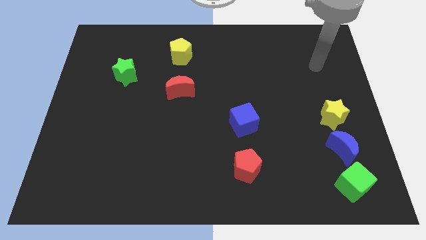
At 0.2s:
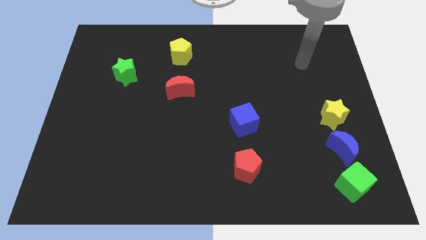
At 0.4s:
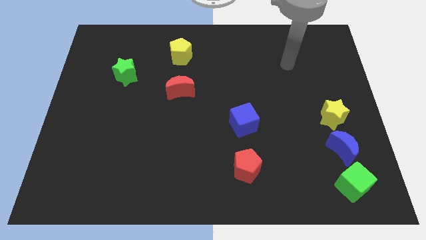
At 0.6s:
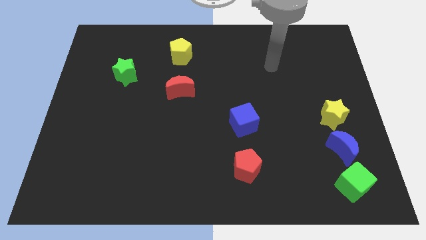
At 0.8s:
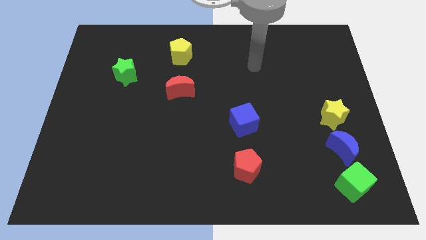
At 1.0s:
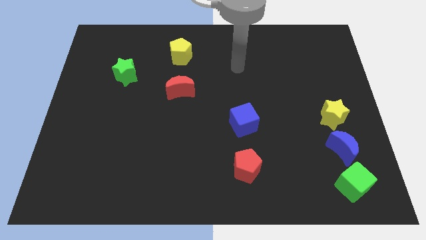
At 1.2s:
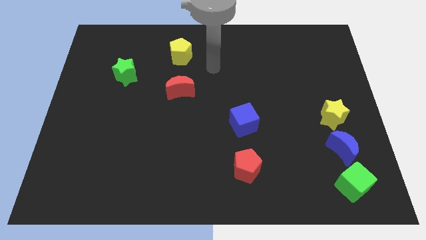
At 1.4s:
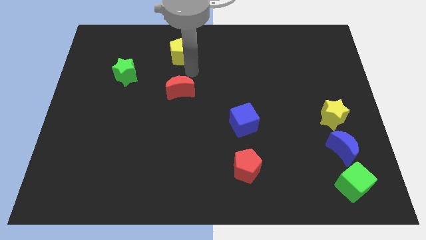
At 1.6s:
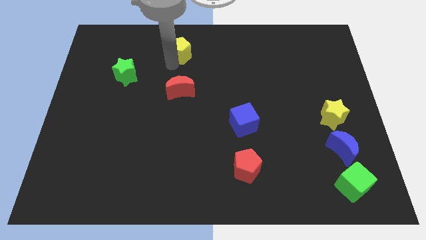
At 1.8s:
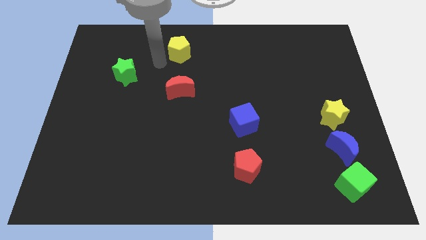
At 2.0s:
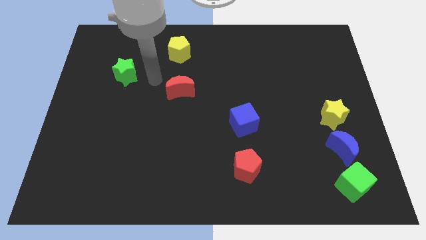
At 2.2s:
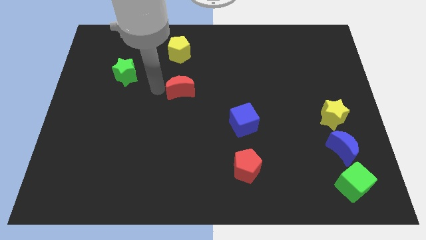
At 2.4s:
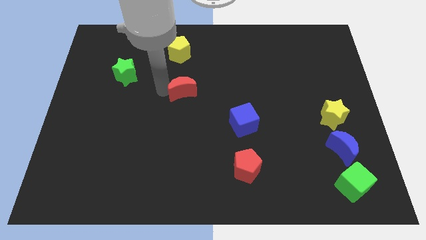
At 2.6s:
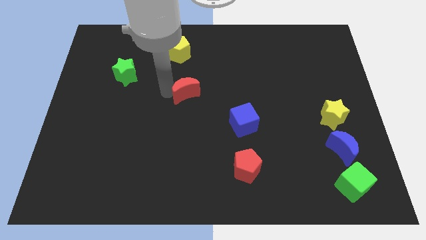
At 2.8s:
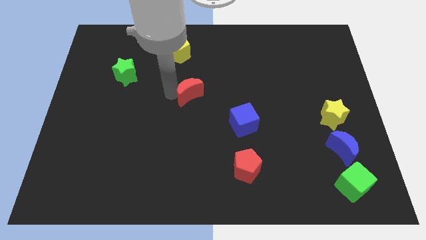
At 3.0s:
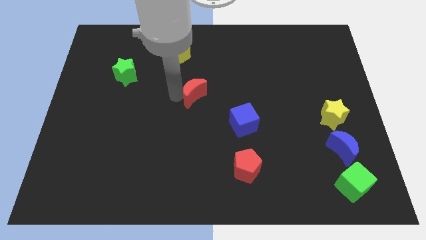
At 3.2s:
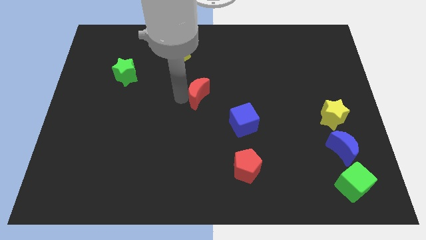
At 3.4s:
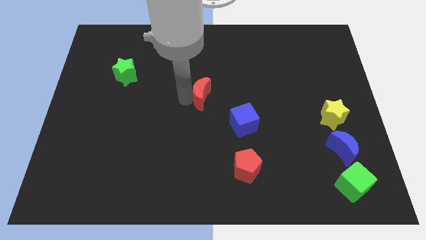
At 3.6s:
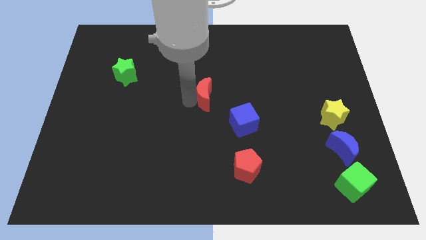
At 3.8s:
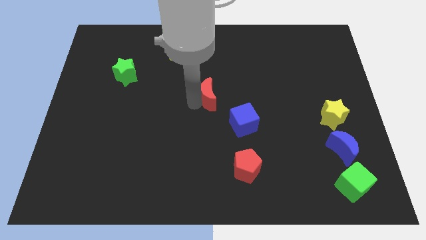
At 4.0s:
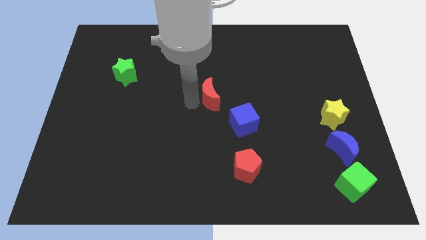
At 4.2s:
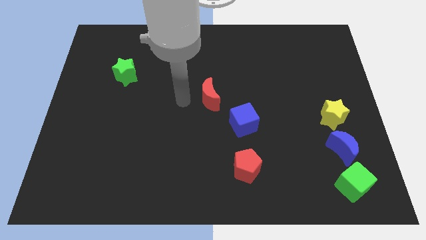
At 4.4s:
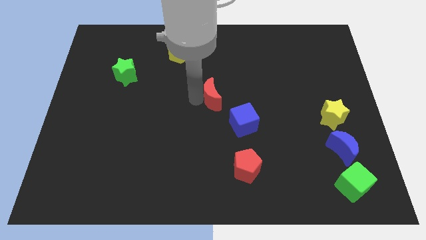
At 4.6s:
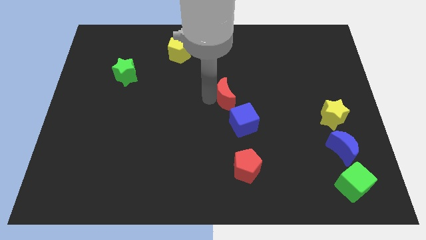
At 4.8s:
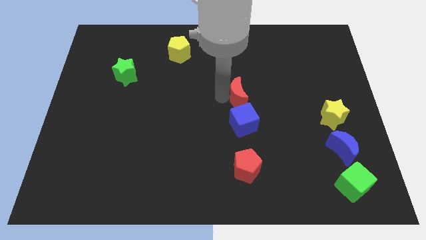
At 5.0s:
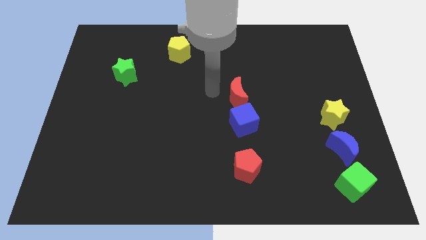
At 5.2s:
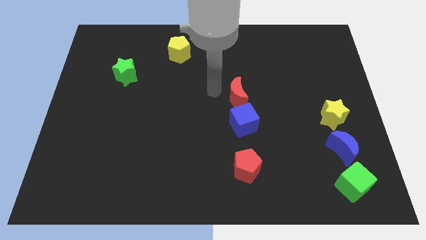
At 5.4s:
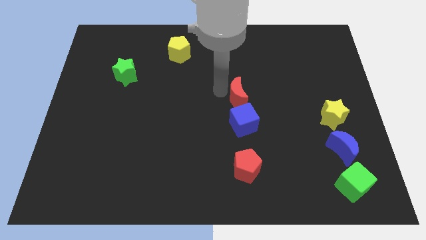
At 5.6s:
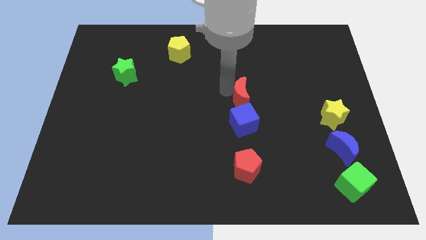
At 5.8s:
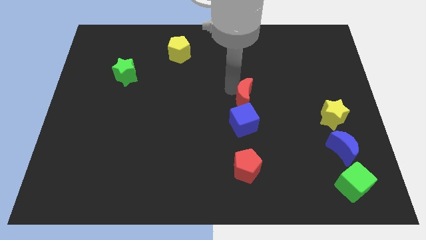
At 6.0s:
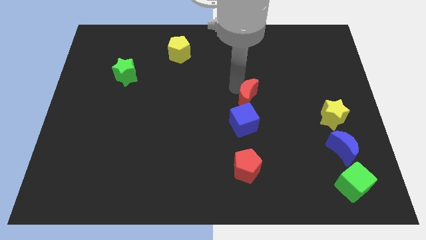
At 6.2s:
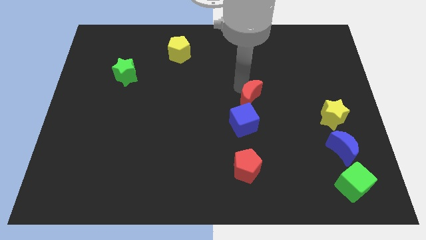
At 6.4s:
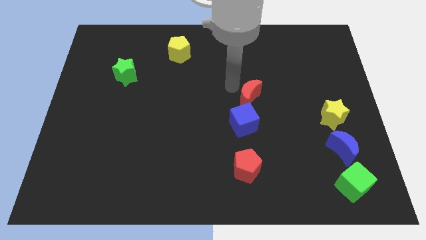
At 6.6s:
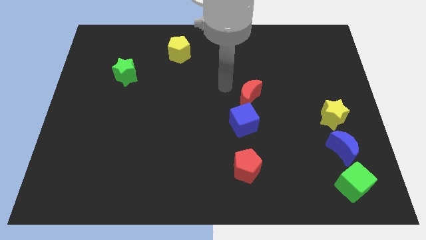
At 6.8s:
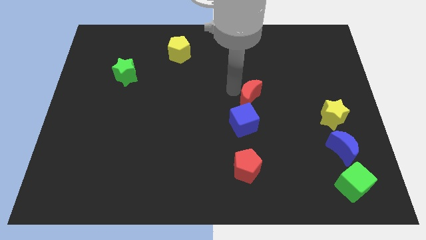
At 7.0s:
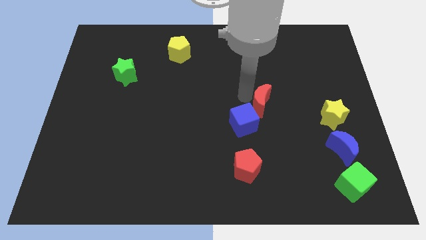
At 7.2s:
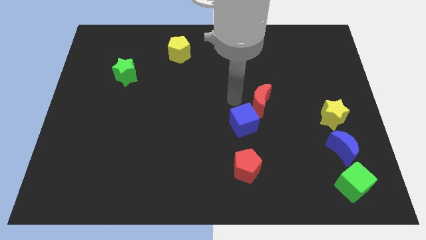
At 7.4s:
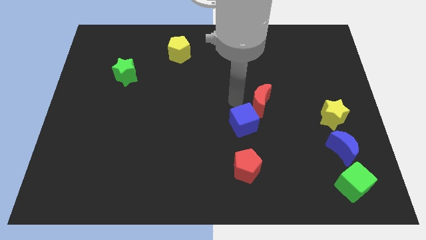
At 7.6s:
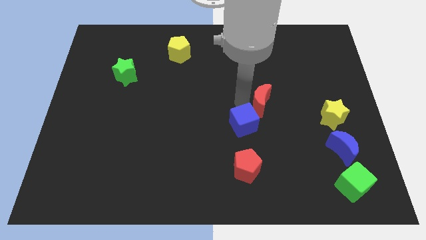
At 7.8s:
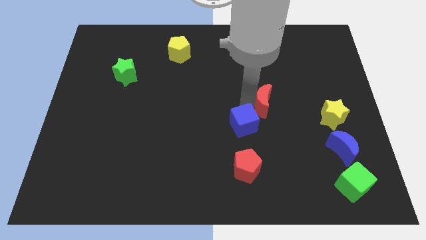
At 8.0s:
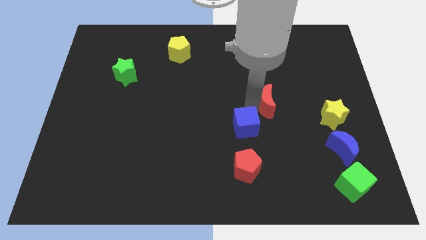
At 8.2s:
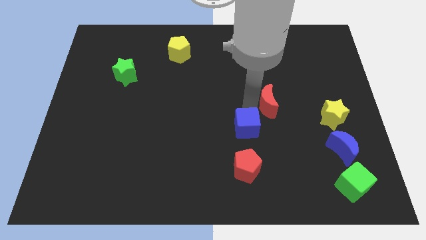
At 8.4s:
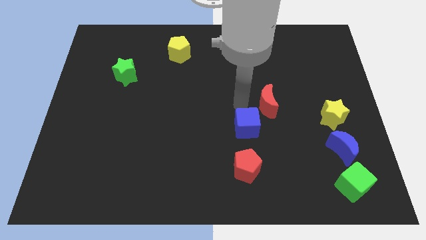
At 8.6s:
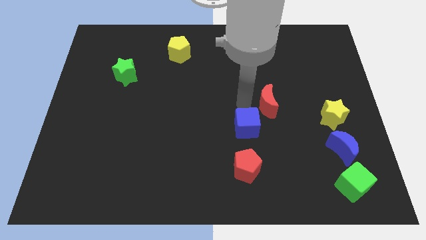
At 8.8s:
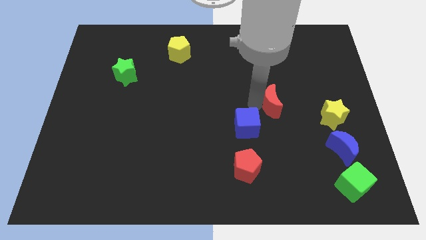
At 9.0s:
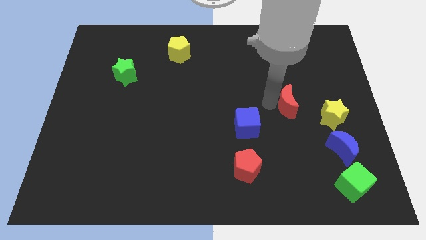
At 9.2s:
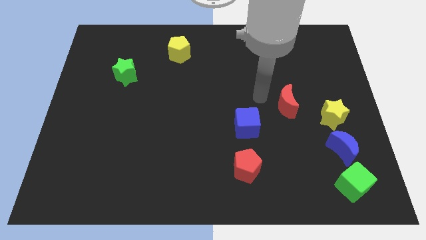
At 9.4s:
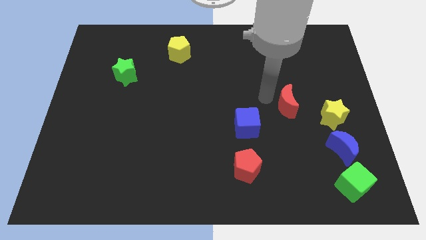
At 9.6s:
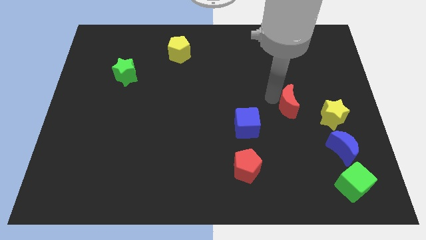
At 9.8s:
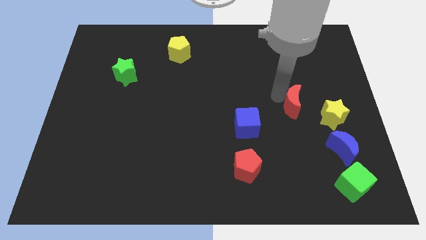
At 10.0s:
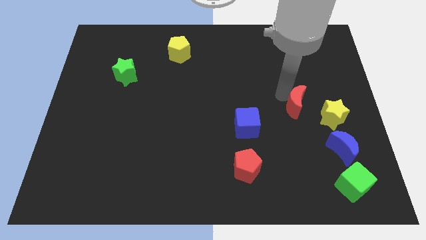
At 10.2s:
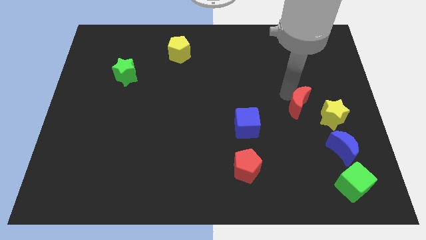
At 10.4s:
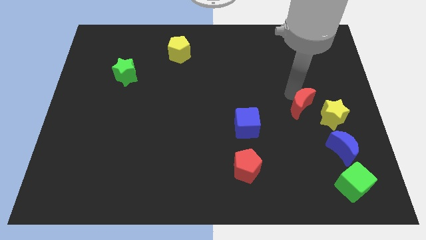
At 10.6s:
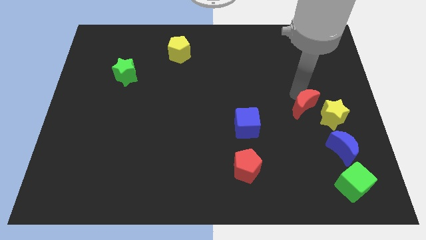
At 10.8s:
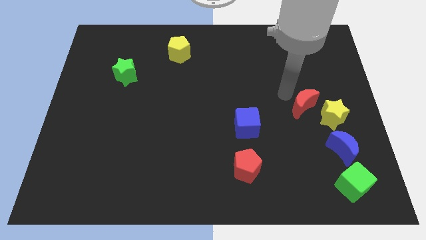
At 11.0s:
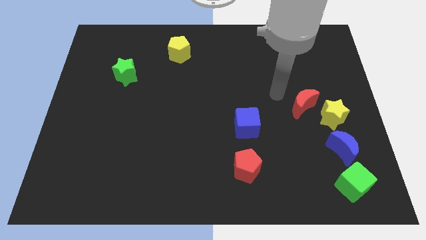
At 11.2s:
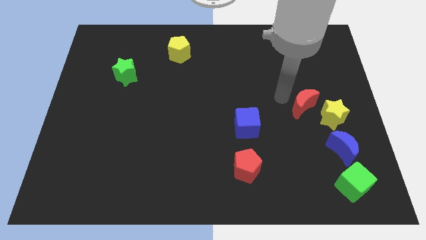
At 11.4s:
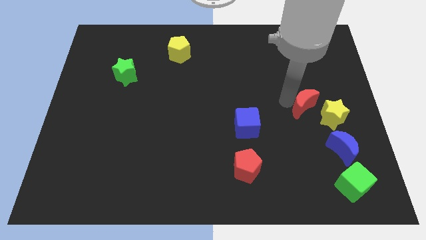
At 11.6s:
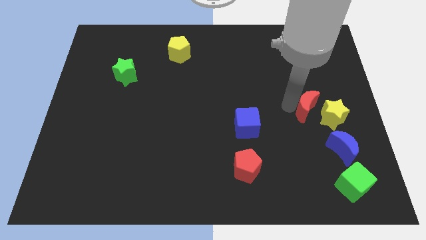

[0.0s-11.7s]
move the red moon close to the yellow star

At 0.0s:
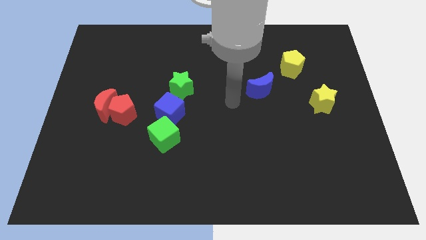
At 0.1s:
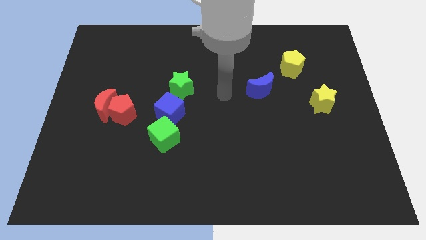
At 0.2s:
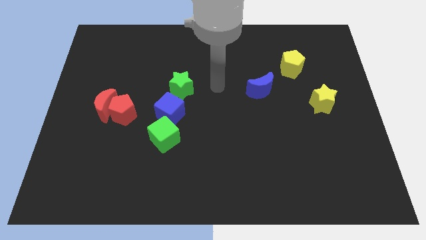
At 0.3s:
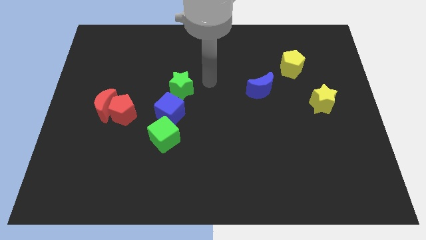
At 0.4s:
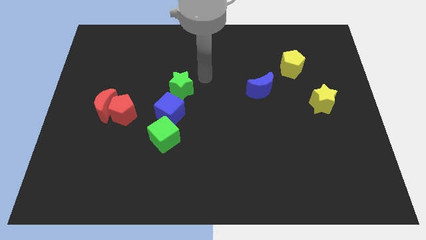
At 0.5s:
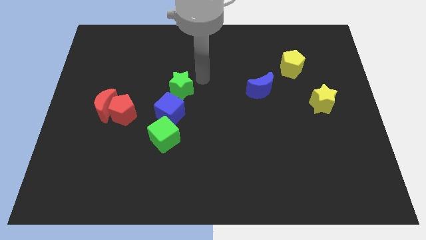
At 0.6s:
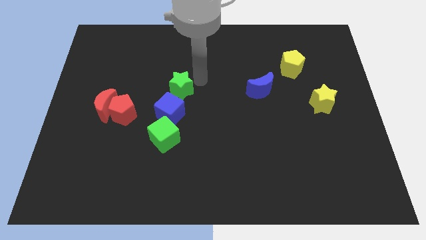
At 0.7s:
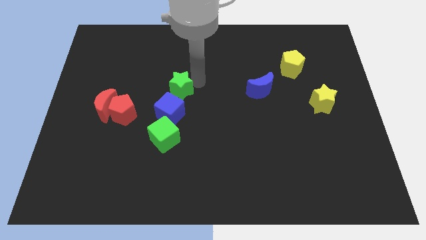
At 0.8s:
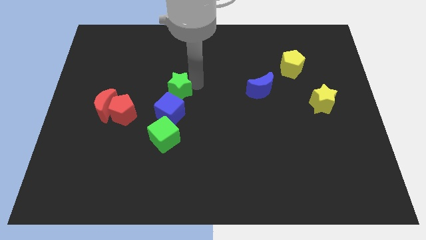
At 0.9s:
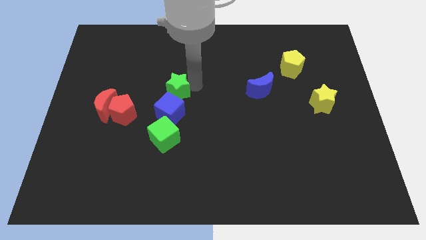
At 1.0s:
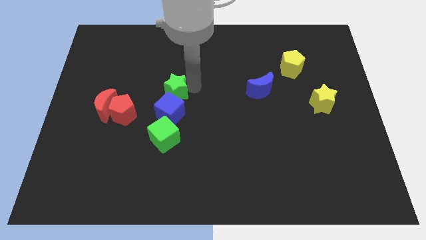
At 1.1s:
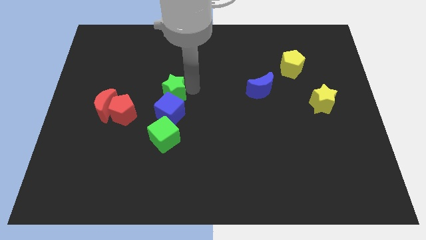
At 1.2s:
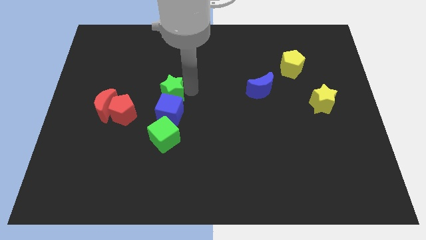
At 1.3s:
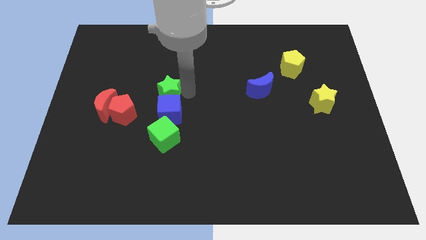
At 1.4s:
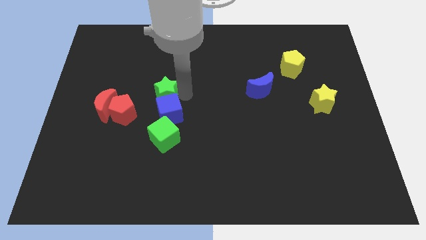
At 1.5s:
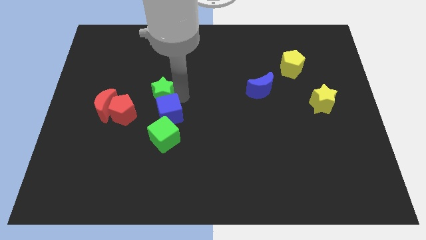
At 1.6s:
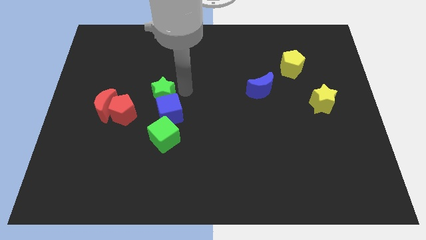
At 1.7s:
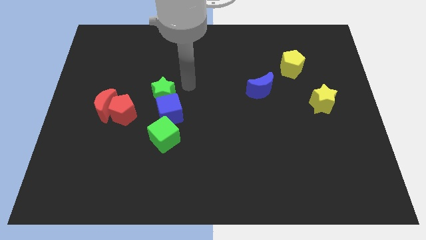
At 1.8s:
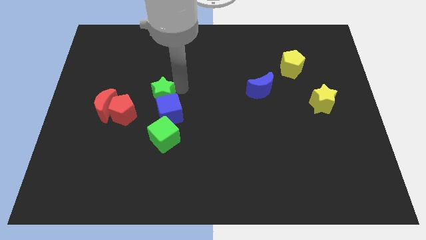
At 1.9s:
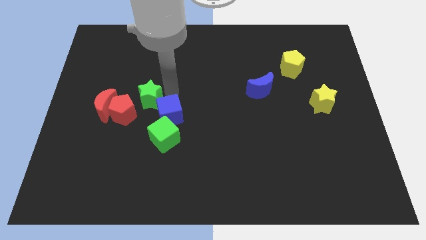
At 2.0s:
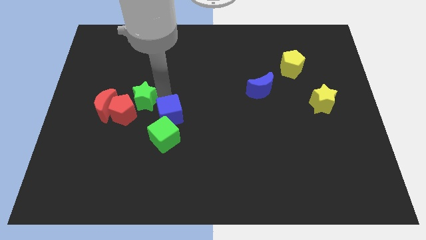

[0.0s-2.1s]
push the green star close to the red pentagon
